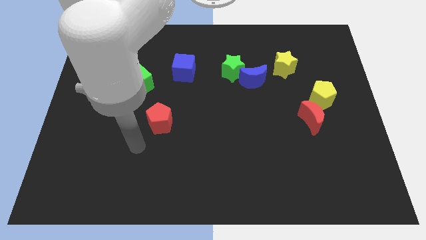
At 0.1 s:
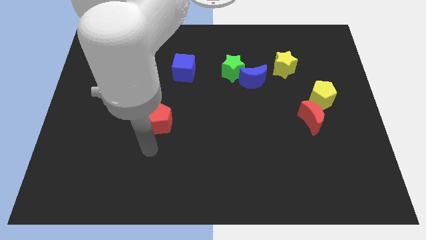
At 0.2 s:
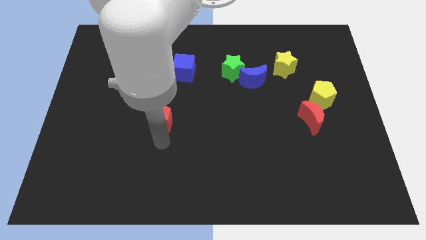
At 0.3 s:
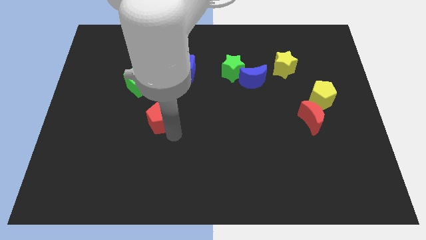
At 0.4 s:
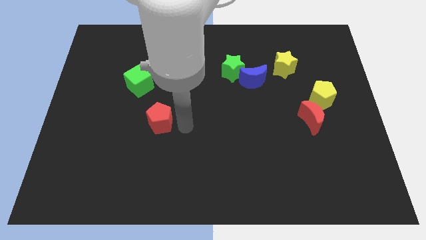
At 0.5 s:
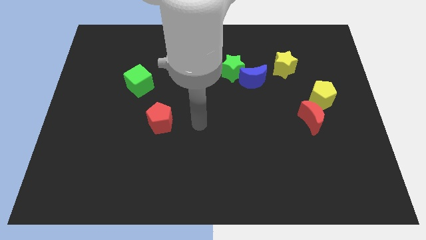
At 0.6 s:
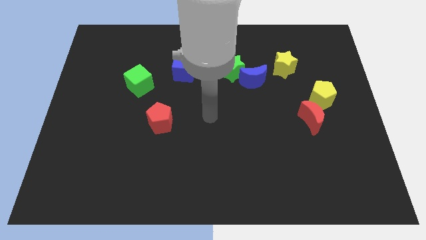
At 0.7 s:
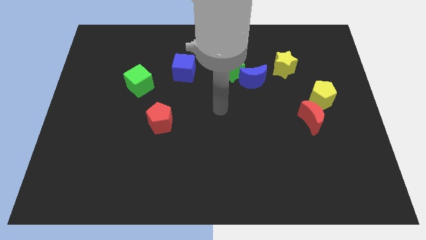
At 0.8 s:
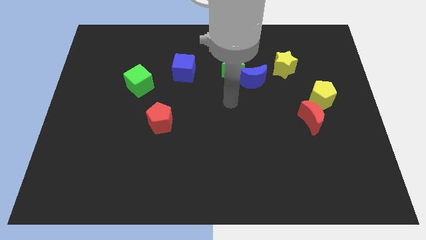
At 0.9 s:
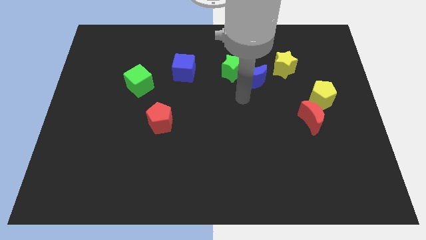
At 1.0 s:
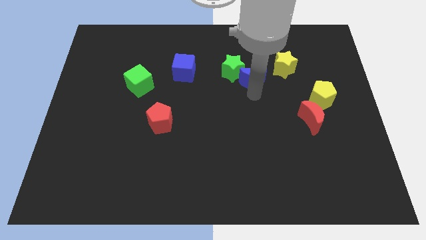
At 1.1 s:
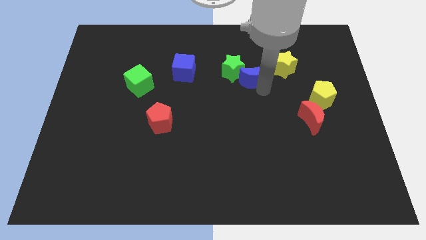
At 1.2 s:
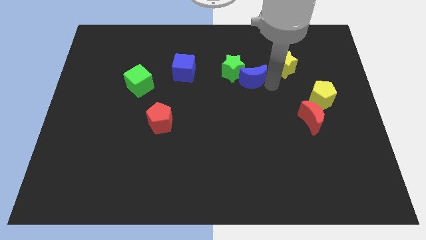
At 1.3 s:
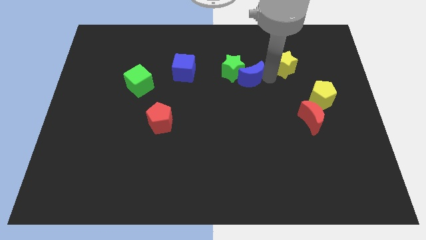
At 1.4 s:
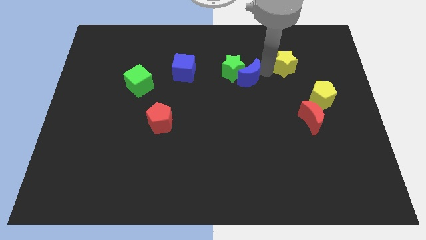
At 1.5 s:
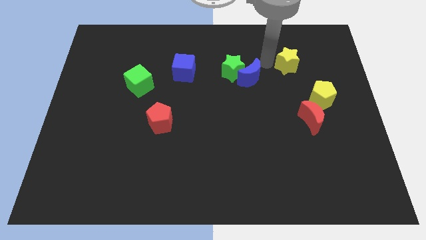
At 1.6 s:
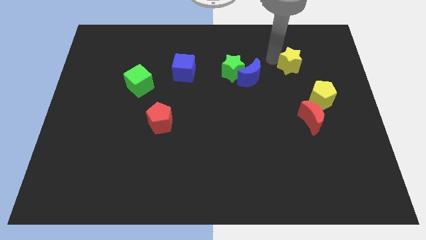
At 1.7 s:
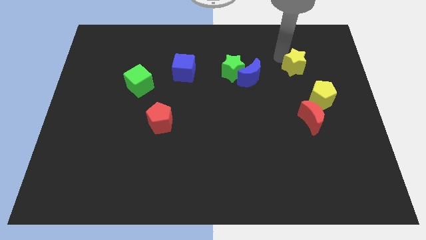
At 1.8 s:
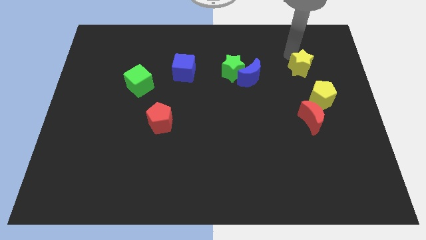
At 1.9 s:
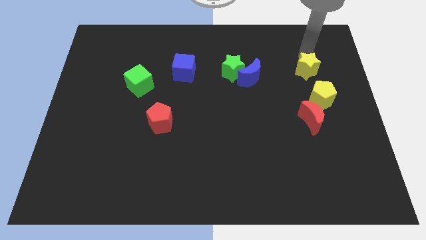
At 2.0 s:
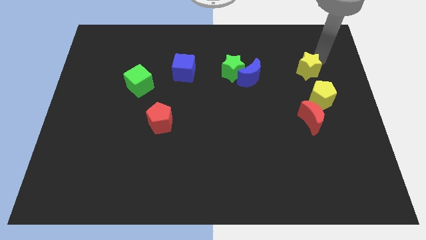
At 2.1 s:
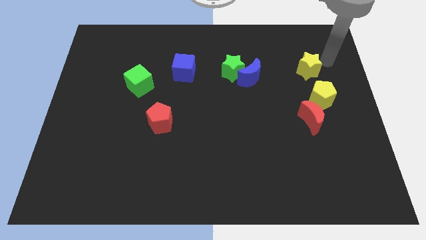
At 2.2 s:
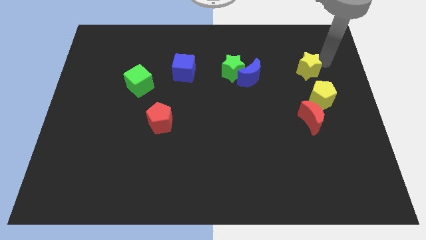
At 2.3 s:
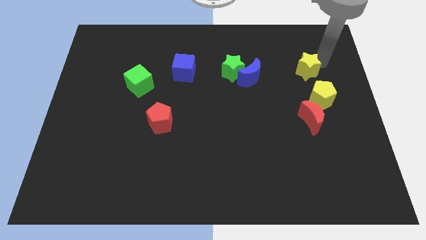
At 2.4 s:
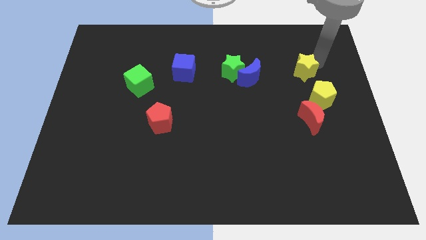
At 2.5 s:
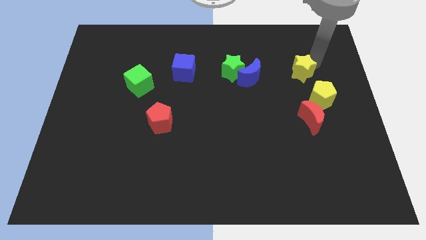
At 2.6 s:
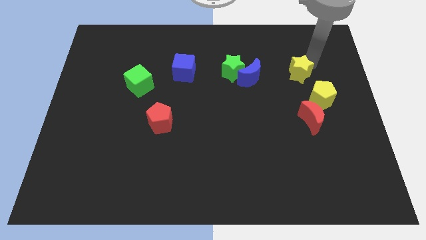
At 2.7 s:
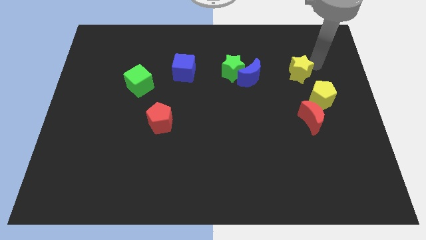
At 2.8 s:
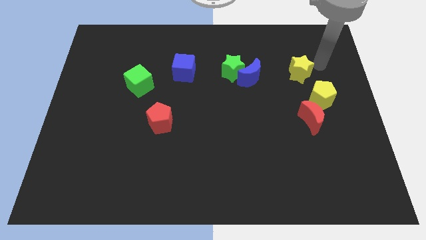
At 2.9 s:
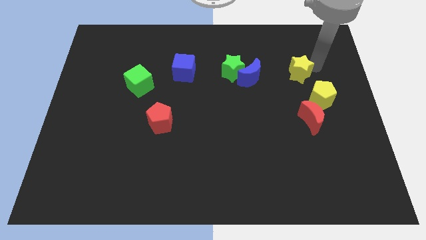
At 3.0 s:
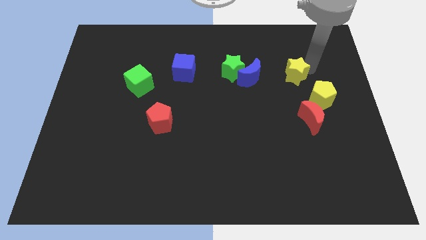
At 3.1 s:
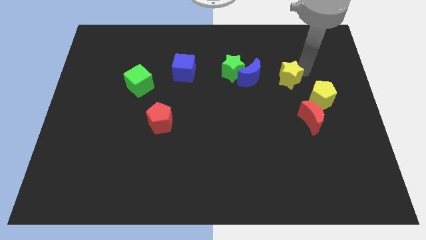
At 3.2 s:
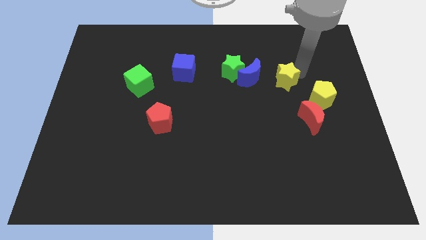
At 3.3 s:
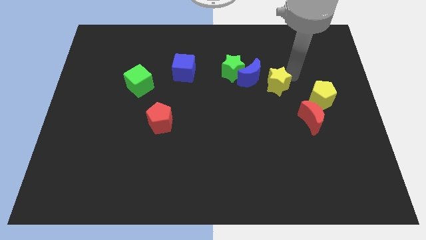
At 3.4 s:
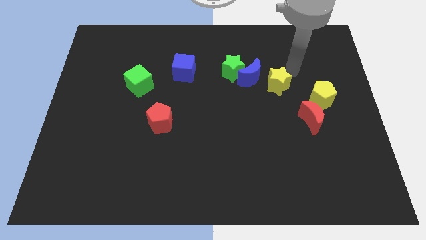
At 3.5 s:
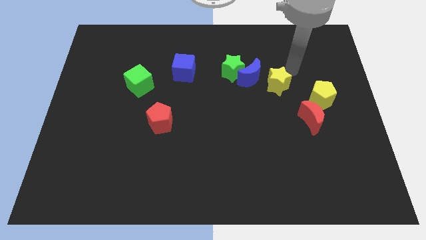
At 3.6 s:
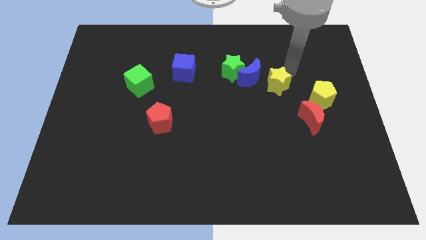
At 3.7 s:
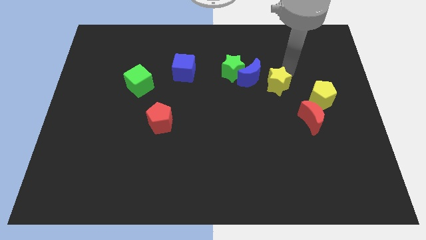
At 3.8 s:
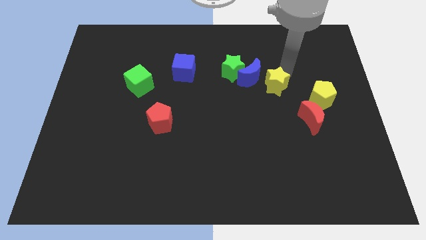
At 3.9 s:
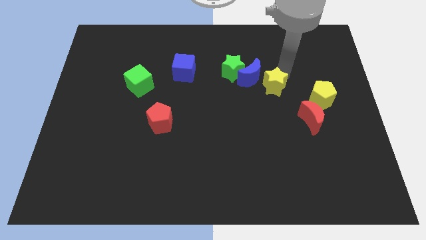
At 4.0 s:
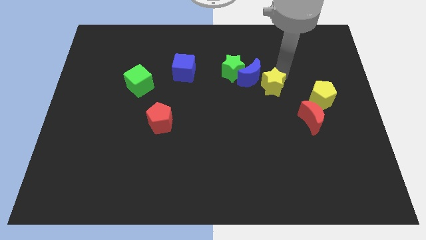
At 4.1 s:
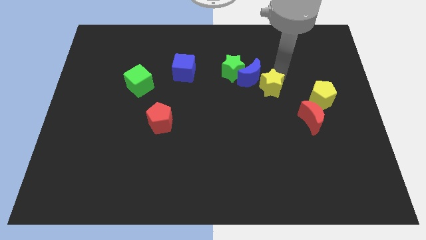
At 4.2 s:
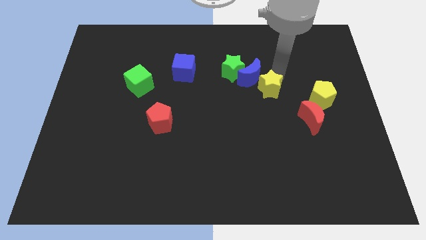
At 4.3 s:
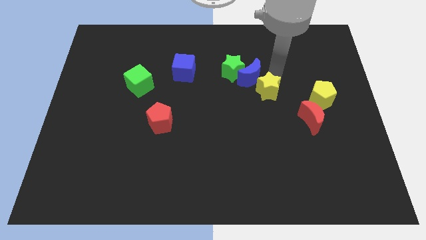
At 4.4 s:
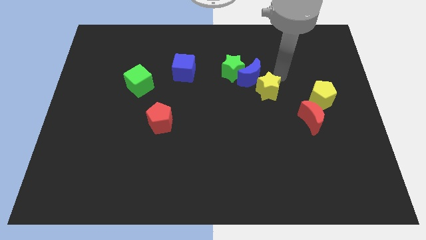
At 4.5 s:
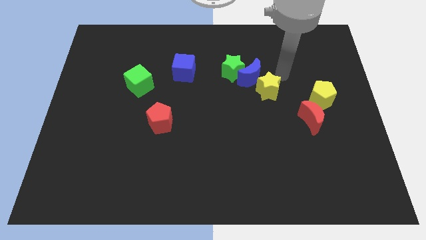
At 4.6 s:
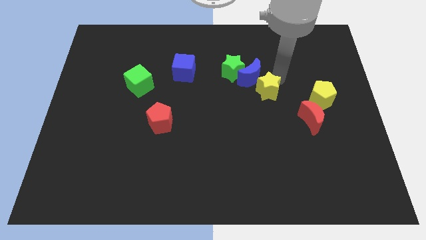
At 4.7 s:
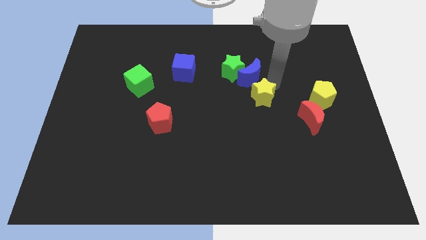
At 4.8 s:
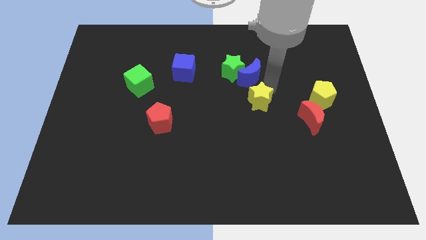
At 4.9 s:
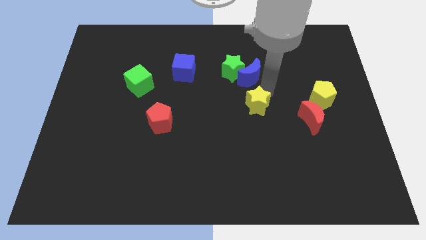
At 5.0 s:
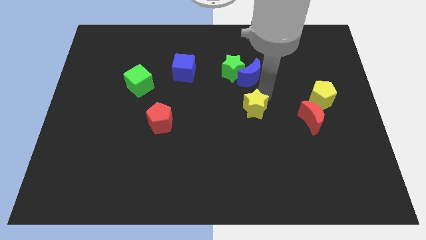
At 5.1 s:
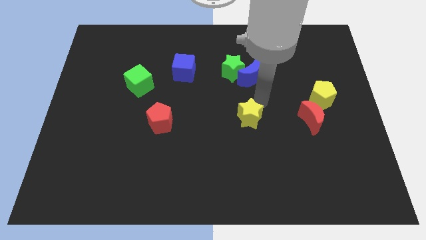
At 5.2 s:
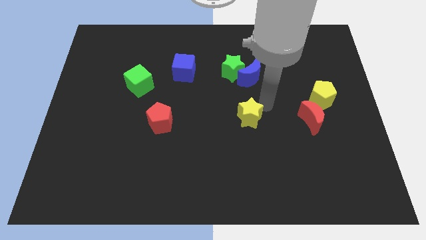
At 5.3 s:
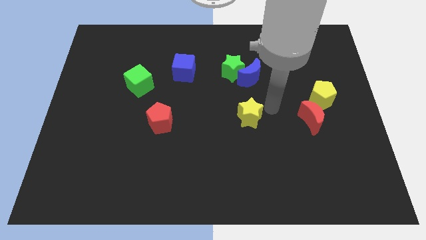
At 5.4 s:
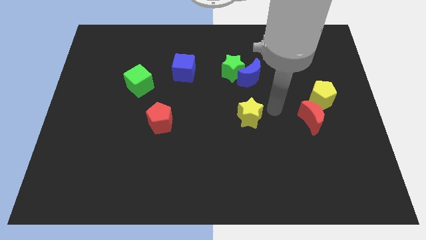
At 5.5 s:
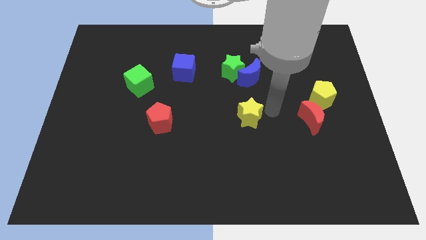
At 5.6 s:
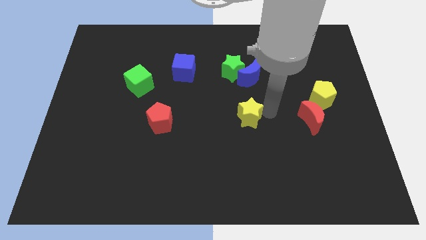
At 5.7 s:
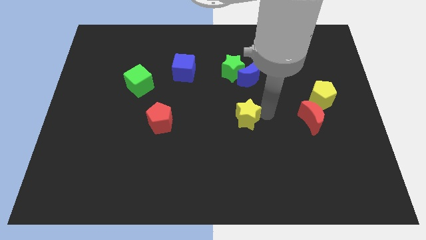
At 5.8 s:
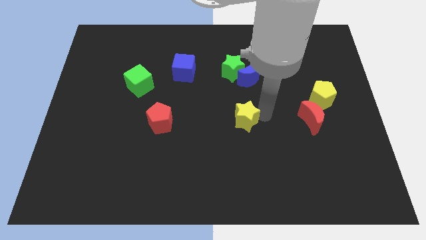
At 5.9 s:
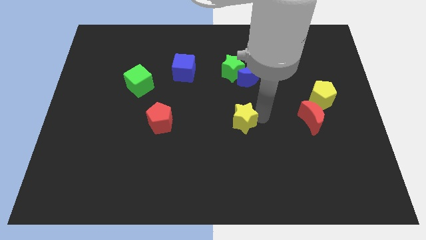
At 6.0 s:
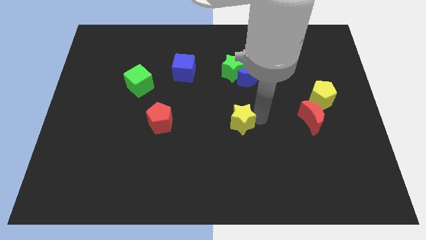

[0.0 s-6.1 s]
slide the yellow star down and to the left diagonally

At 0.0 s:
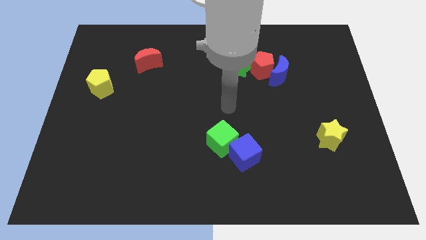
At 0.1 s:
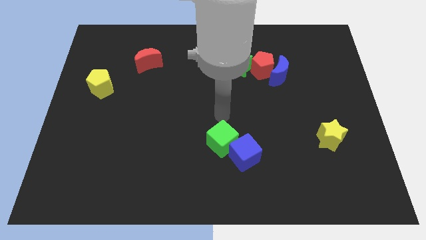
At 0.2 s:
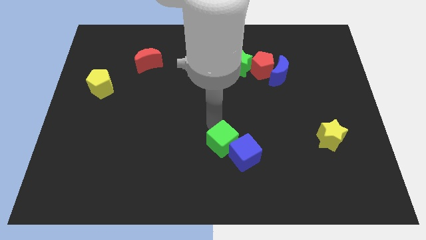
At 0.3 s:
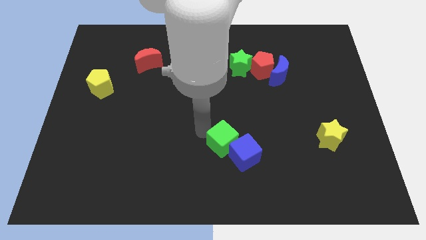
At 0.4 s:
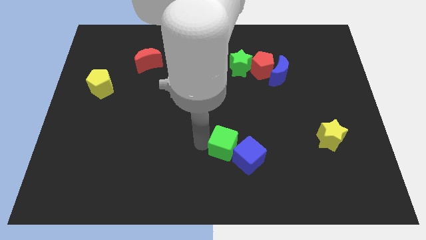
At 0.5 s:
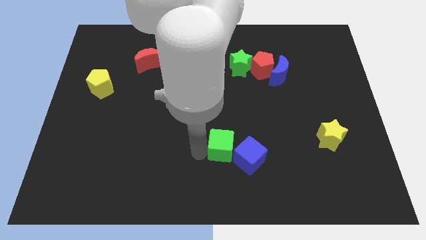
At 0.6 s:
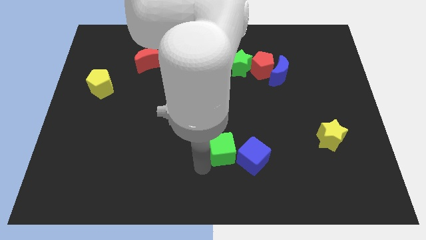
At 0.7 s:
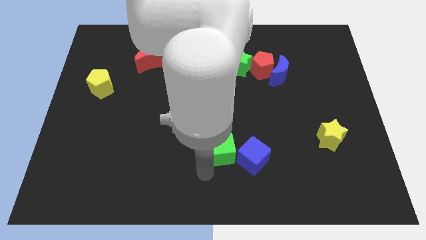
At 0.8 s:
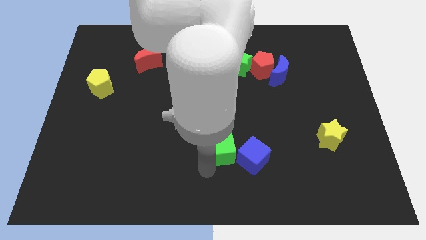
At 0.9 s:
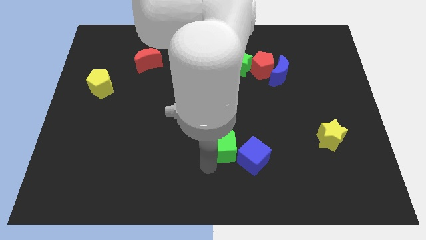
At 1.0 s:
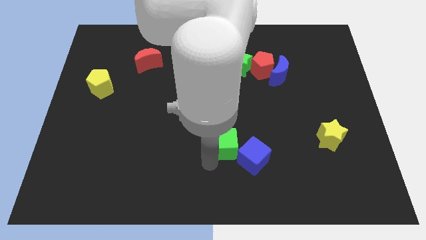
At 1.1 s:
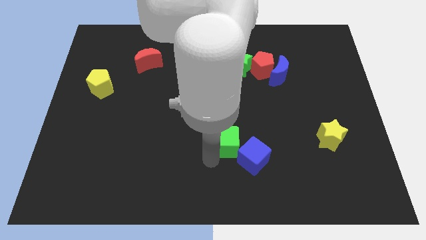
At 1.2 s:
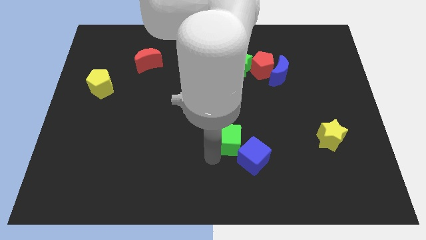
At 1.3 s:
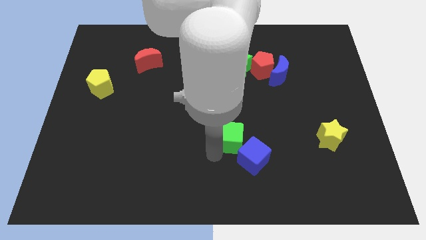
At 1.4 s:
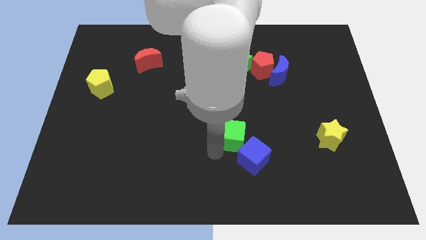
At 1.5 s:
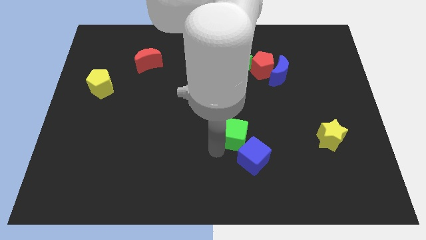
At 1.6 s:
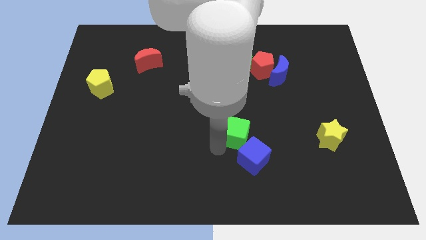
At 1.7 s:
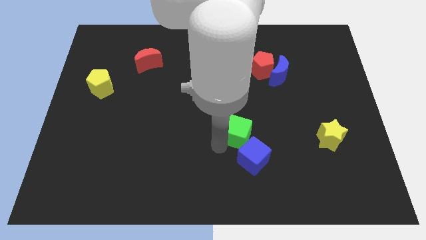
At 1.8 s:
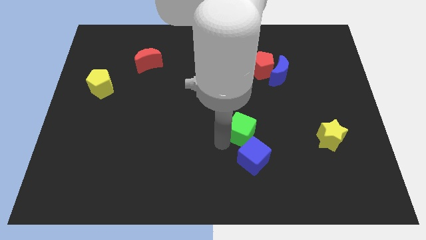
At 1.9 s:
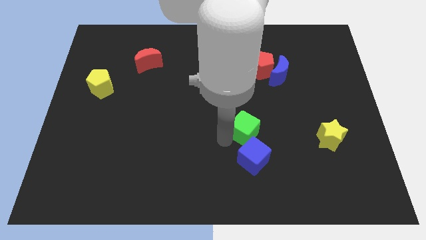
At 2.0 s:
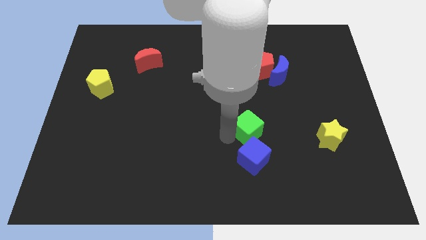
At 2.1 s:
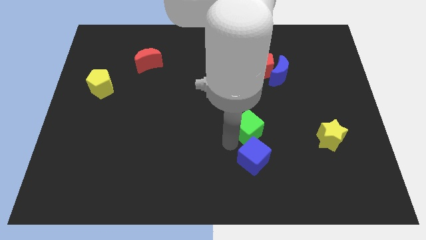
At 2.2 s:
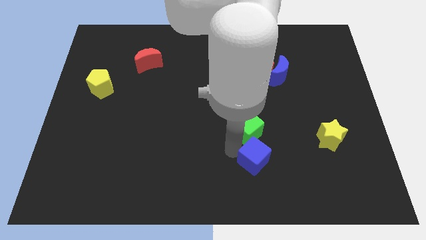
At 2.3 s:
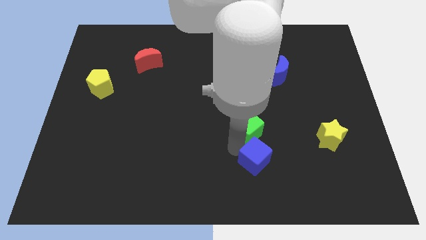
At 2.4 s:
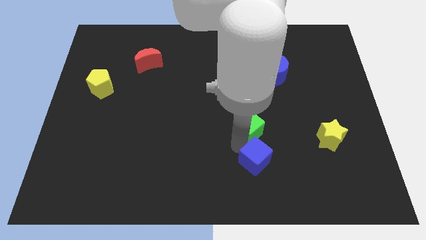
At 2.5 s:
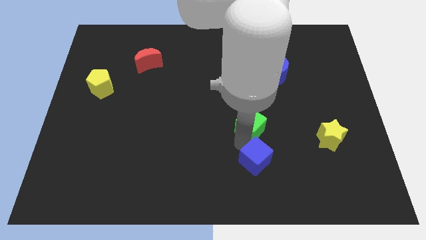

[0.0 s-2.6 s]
slide the green cube up and then to the right a little bit
